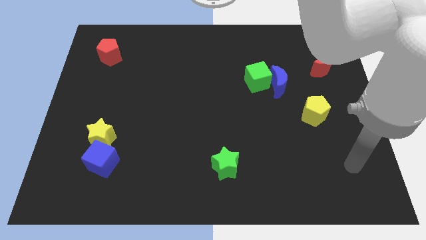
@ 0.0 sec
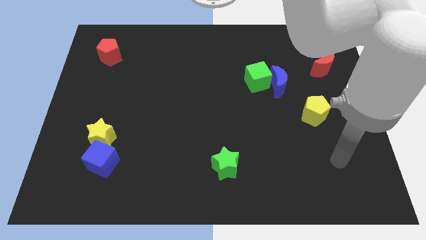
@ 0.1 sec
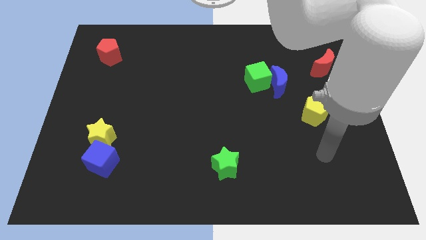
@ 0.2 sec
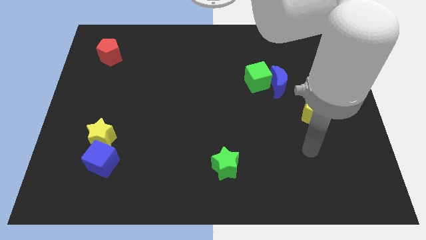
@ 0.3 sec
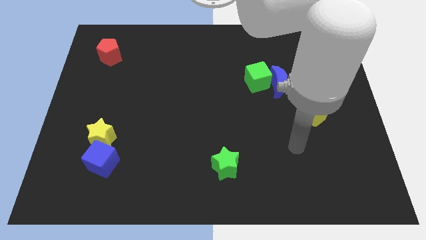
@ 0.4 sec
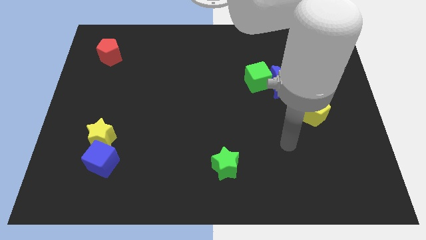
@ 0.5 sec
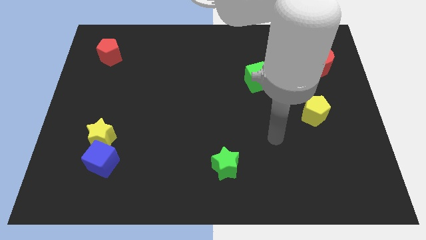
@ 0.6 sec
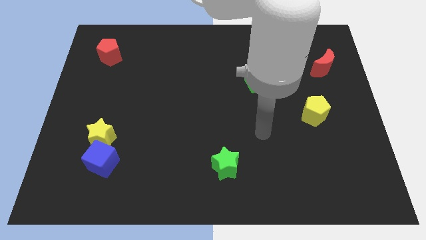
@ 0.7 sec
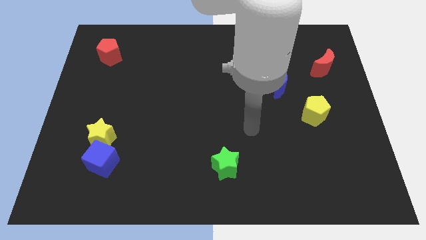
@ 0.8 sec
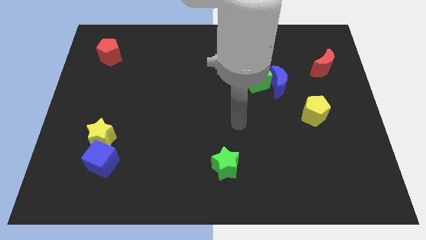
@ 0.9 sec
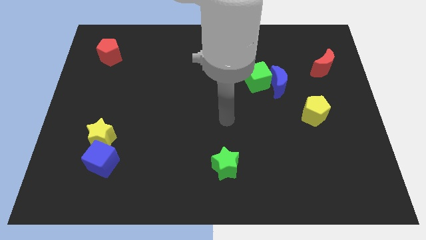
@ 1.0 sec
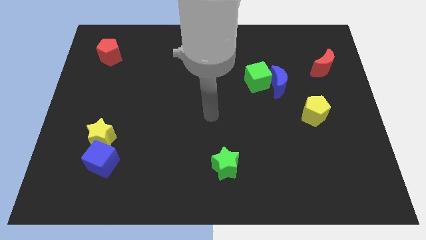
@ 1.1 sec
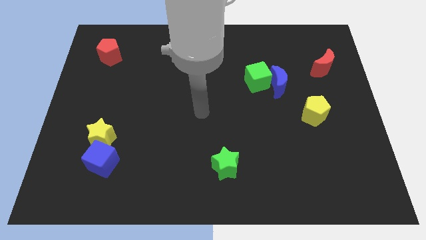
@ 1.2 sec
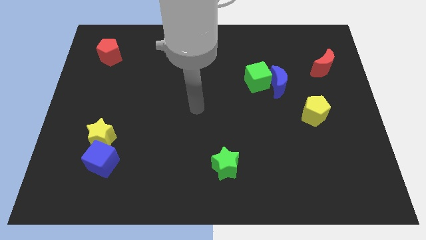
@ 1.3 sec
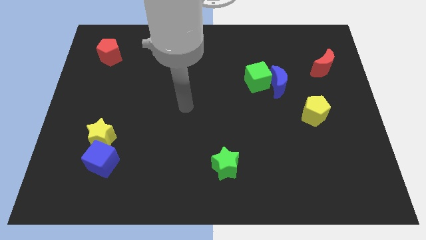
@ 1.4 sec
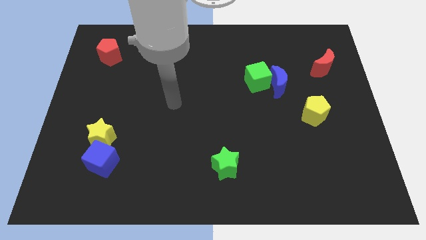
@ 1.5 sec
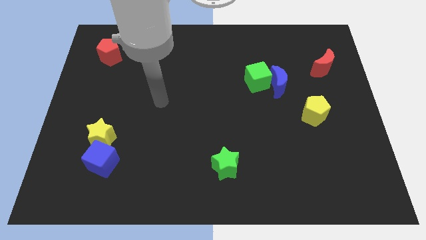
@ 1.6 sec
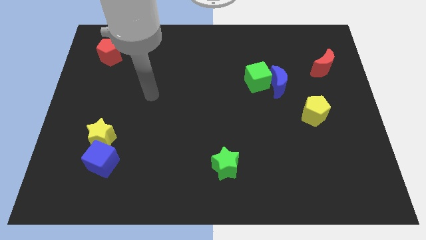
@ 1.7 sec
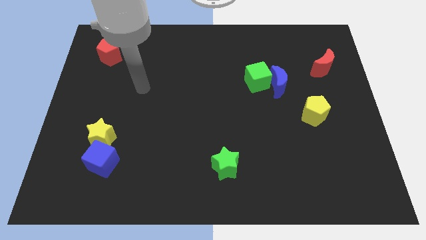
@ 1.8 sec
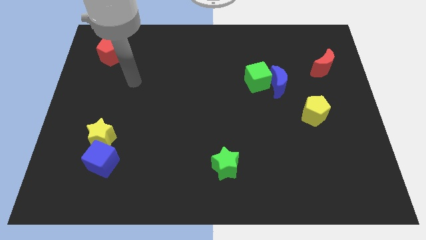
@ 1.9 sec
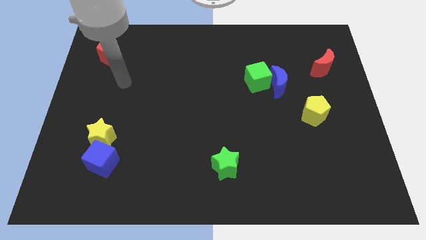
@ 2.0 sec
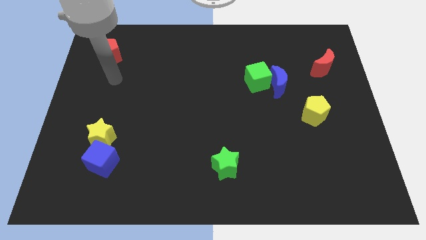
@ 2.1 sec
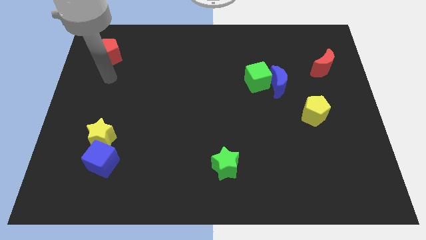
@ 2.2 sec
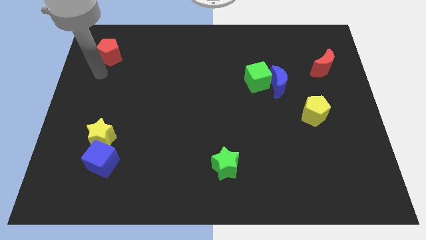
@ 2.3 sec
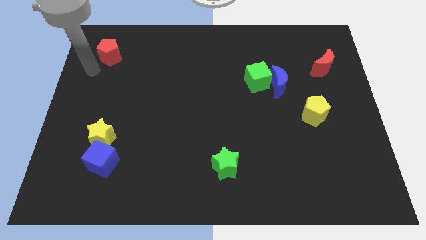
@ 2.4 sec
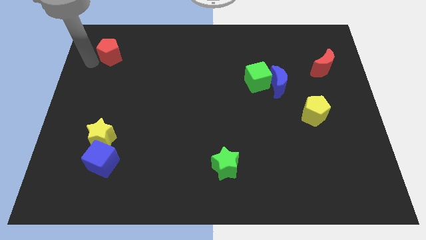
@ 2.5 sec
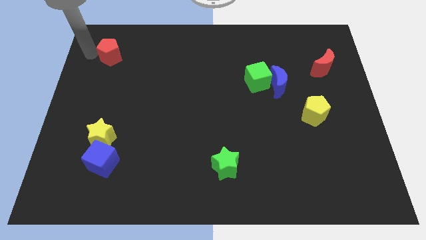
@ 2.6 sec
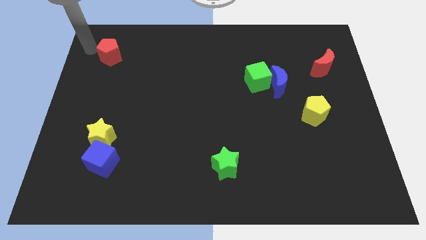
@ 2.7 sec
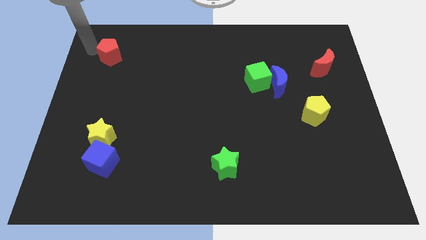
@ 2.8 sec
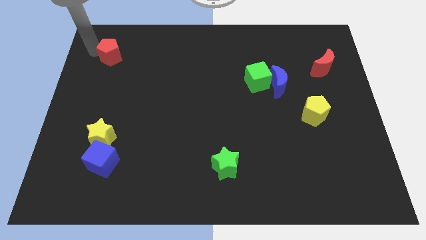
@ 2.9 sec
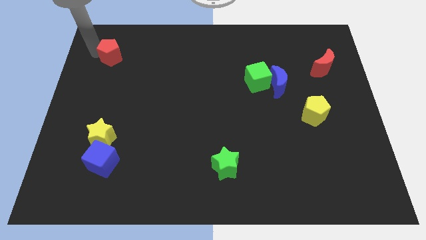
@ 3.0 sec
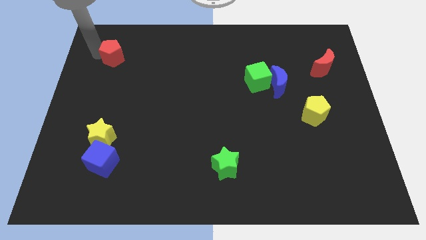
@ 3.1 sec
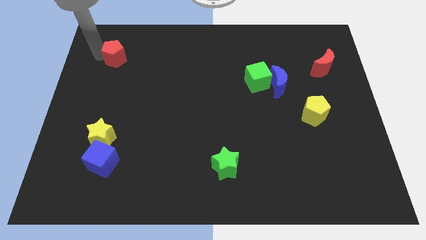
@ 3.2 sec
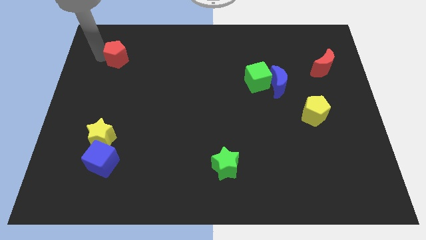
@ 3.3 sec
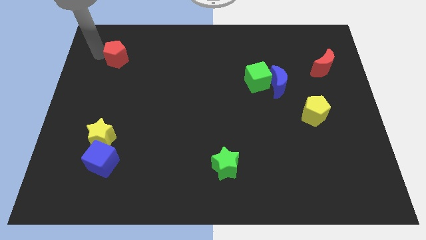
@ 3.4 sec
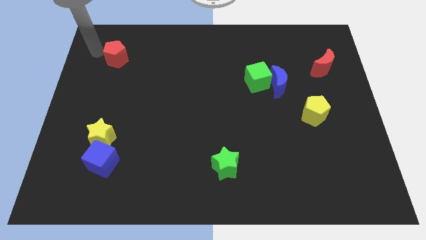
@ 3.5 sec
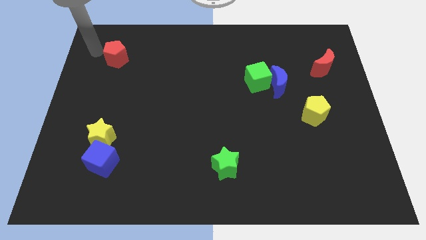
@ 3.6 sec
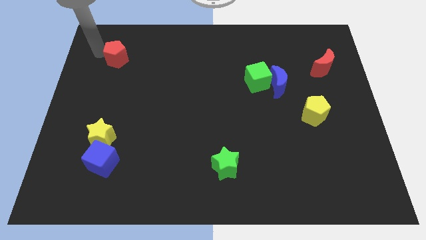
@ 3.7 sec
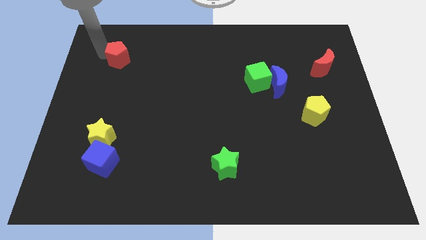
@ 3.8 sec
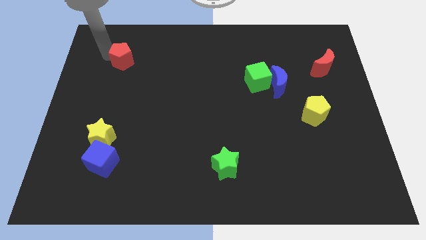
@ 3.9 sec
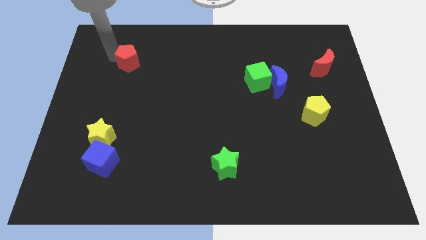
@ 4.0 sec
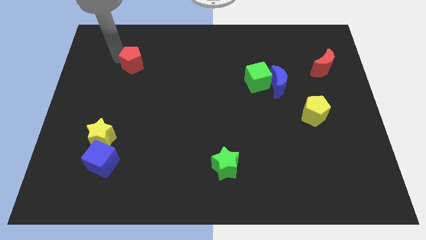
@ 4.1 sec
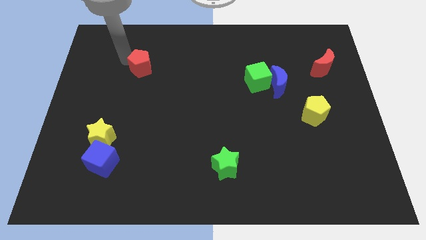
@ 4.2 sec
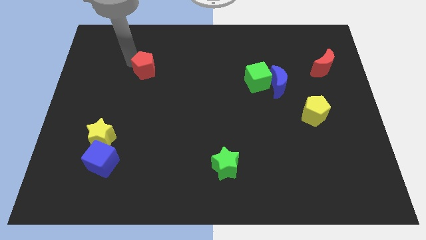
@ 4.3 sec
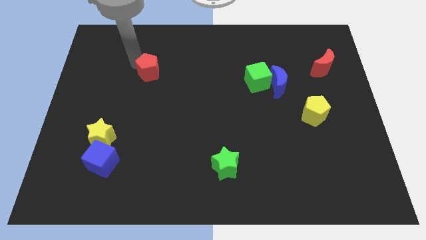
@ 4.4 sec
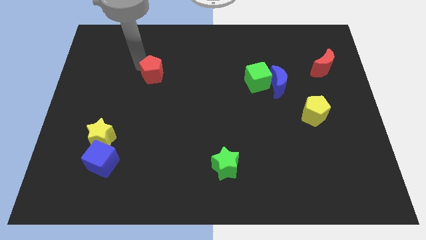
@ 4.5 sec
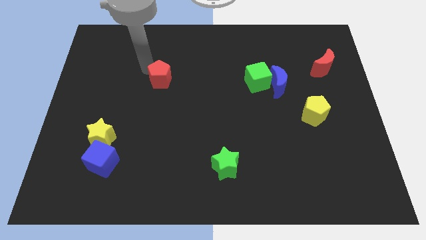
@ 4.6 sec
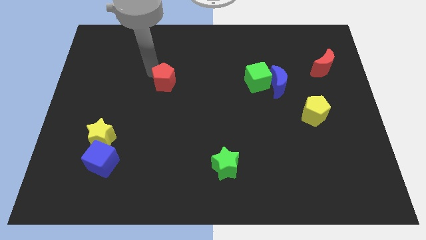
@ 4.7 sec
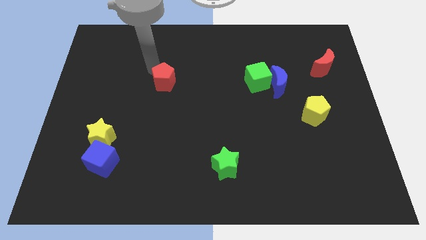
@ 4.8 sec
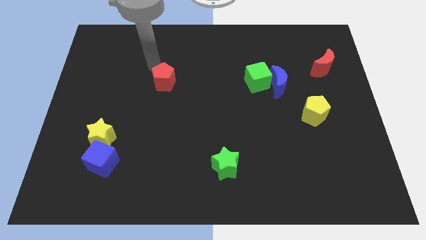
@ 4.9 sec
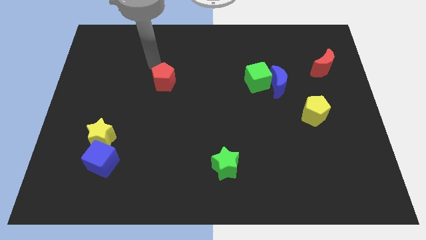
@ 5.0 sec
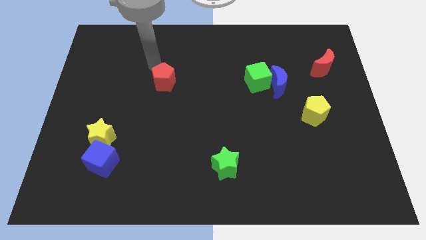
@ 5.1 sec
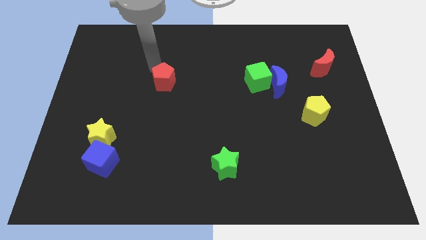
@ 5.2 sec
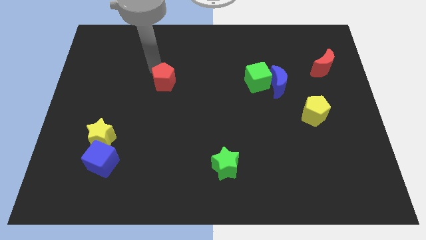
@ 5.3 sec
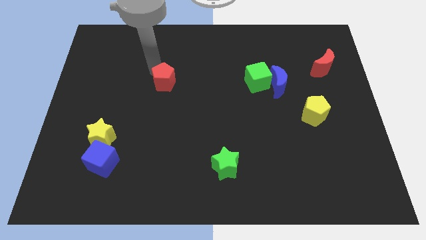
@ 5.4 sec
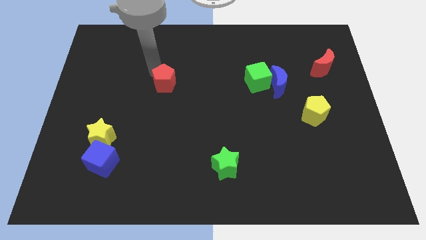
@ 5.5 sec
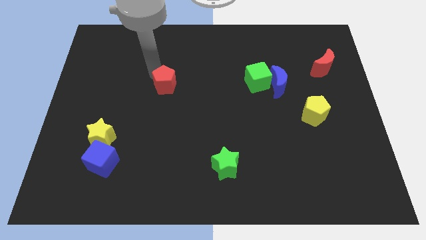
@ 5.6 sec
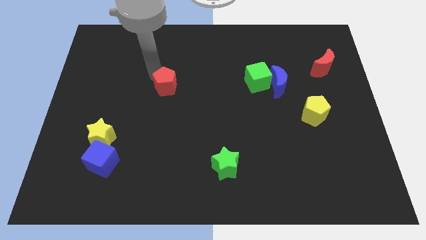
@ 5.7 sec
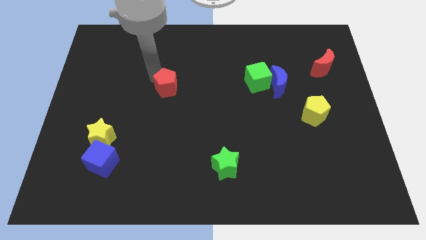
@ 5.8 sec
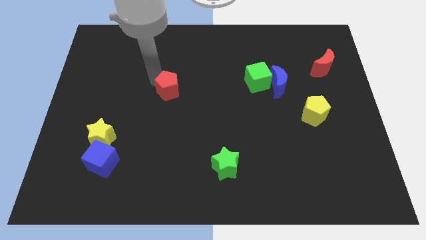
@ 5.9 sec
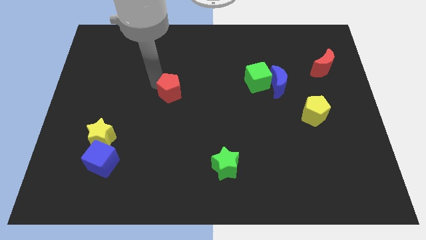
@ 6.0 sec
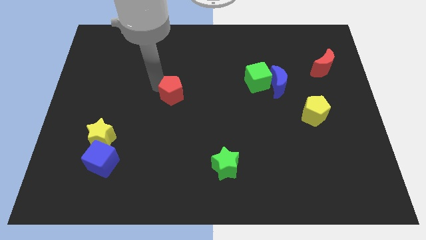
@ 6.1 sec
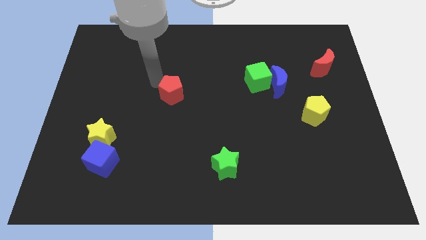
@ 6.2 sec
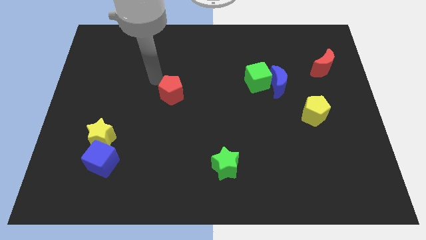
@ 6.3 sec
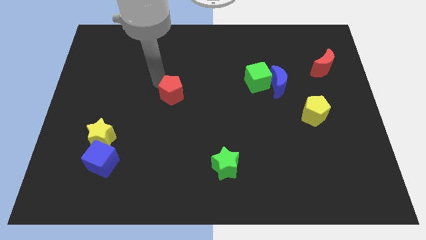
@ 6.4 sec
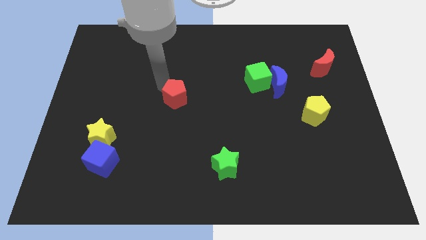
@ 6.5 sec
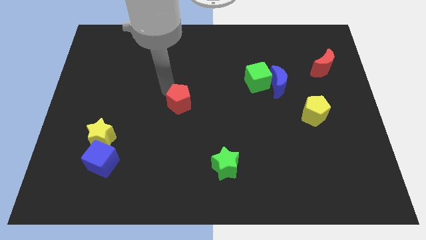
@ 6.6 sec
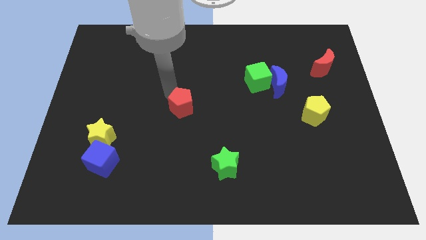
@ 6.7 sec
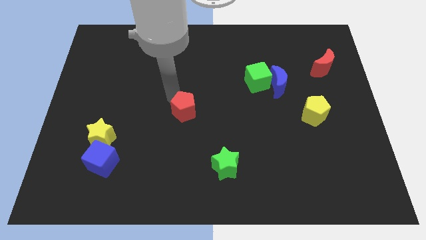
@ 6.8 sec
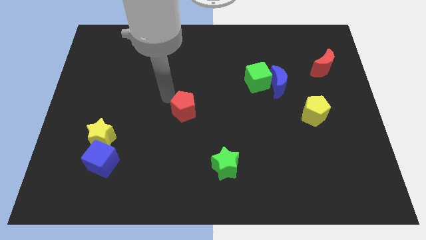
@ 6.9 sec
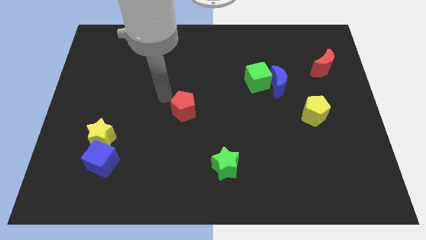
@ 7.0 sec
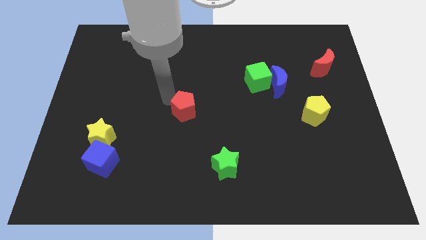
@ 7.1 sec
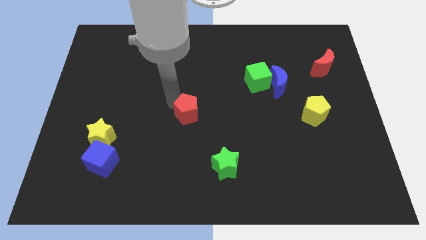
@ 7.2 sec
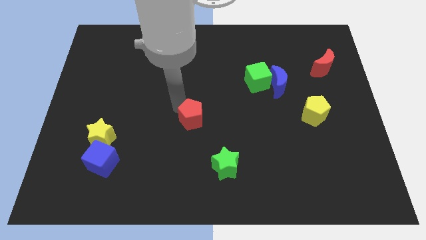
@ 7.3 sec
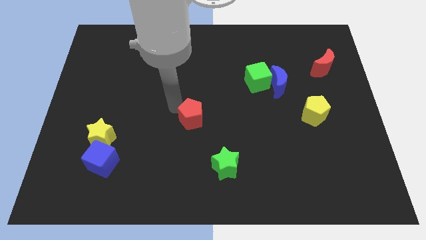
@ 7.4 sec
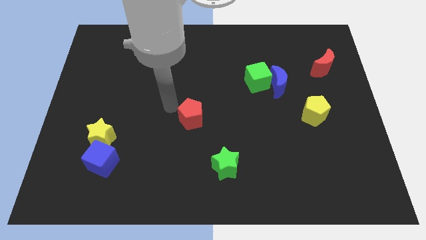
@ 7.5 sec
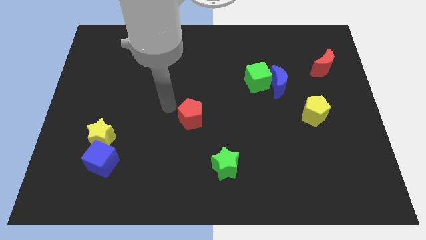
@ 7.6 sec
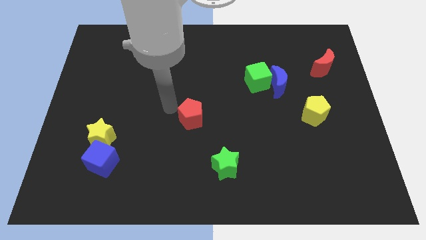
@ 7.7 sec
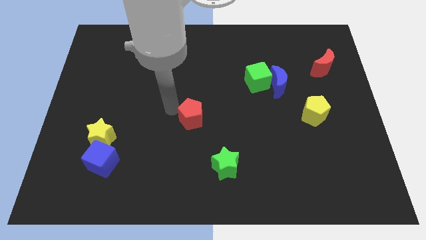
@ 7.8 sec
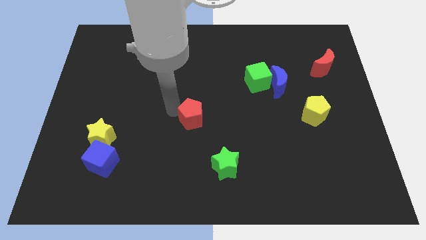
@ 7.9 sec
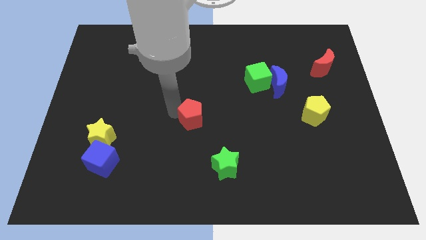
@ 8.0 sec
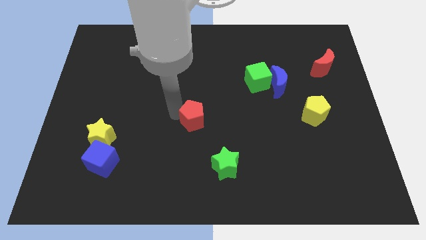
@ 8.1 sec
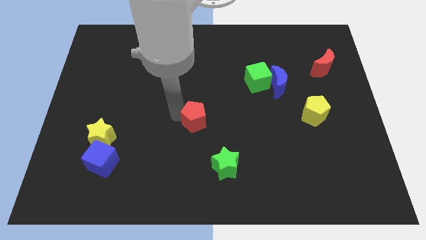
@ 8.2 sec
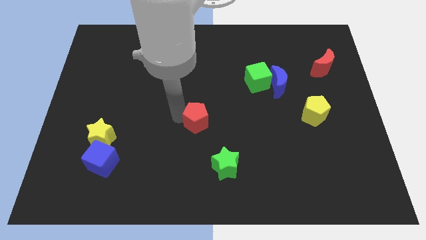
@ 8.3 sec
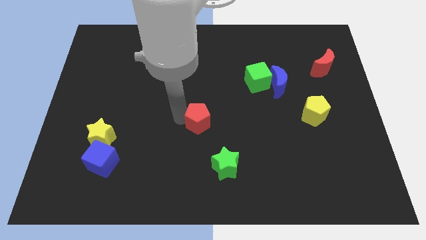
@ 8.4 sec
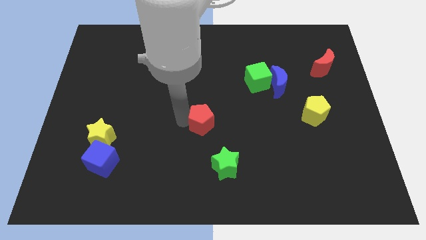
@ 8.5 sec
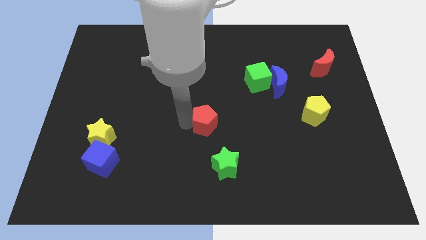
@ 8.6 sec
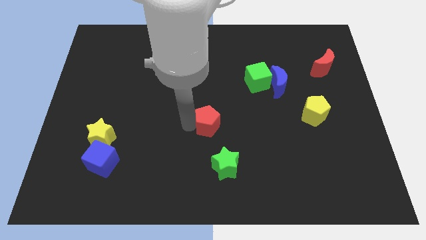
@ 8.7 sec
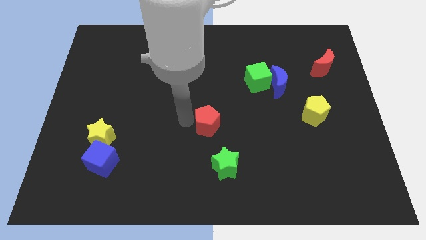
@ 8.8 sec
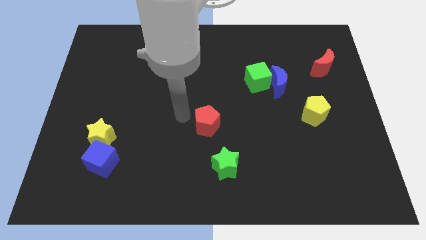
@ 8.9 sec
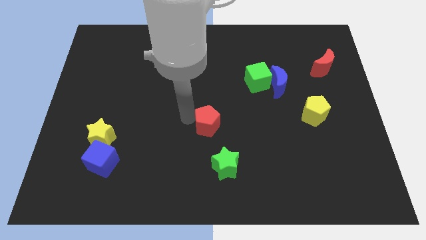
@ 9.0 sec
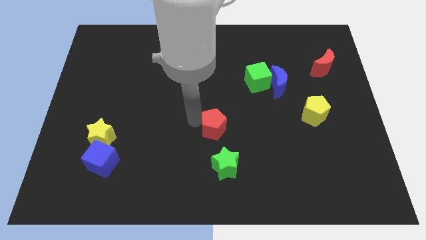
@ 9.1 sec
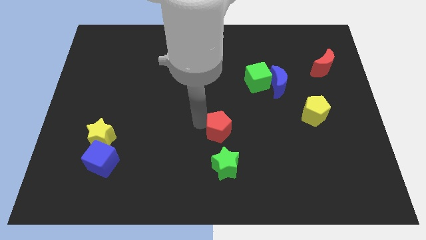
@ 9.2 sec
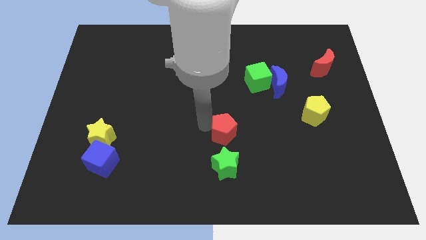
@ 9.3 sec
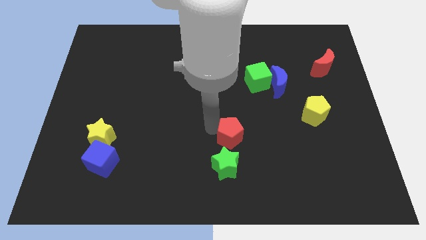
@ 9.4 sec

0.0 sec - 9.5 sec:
move the red pentagon to the top right of the green star
